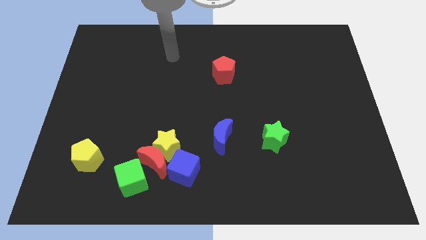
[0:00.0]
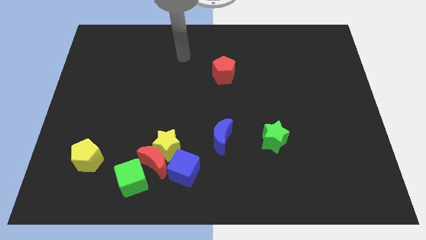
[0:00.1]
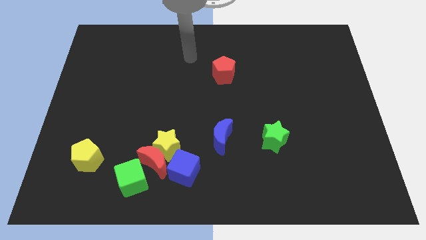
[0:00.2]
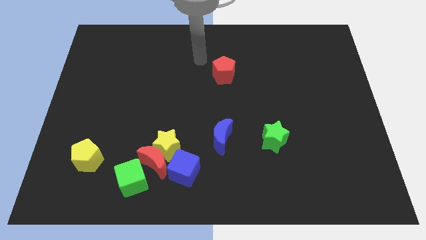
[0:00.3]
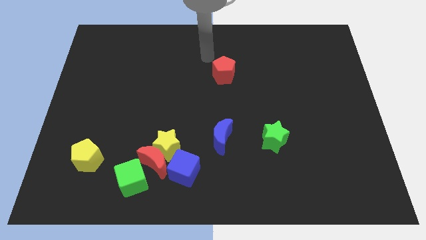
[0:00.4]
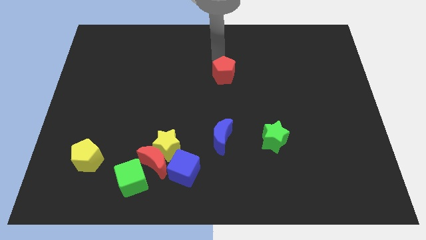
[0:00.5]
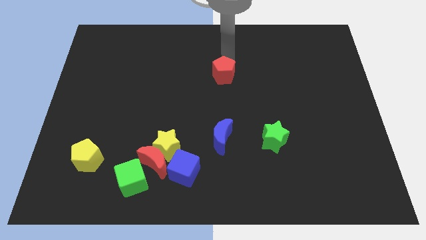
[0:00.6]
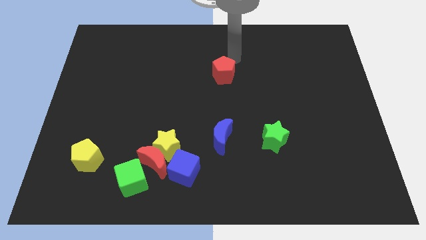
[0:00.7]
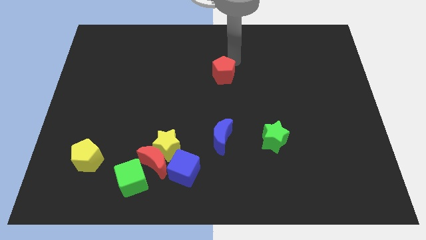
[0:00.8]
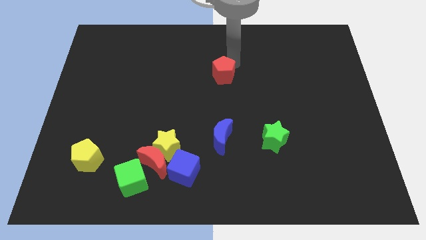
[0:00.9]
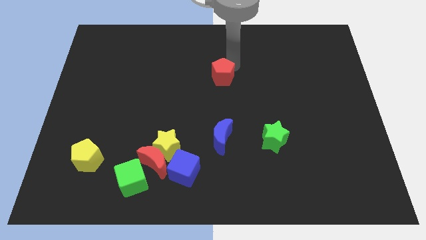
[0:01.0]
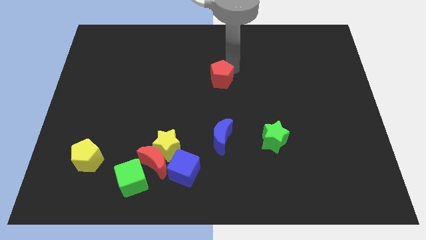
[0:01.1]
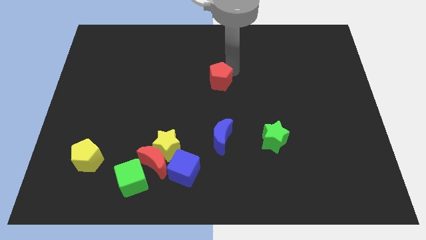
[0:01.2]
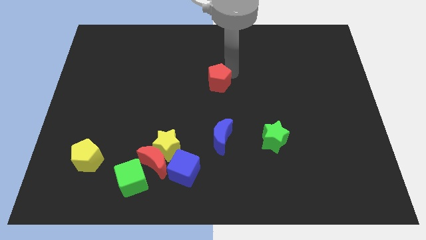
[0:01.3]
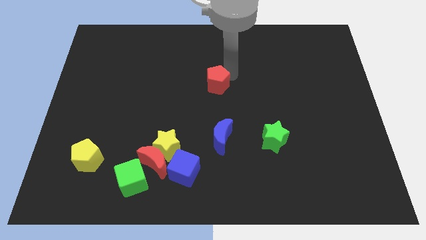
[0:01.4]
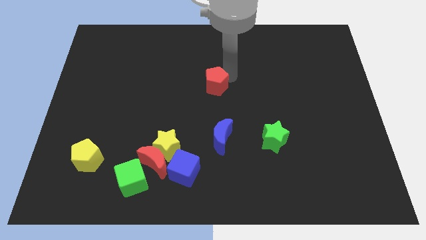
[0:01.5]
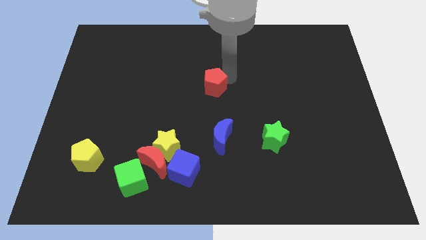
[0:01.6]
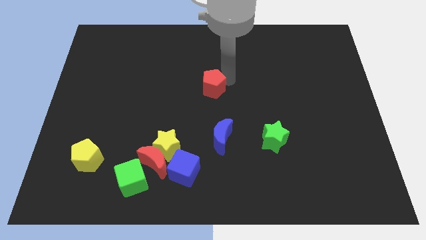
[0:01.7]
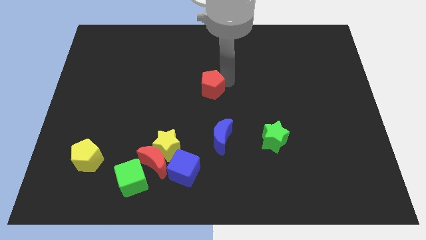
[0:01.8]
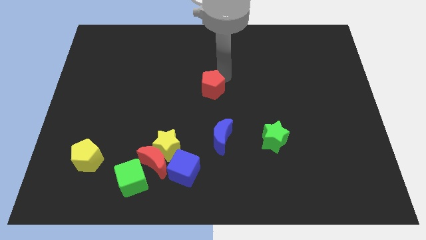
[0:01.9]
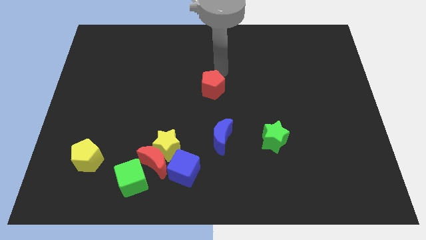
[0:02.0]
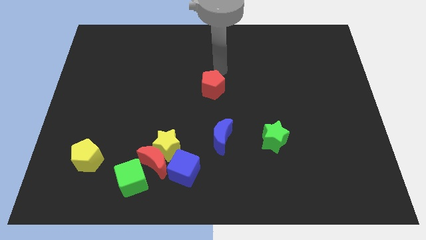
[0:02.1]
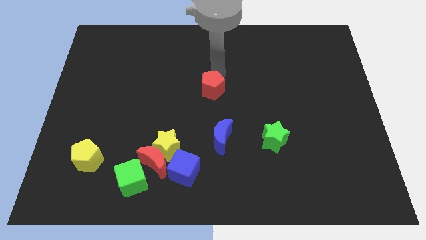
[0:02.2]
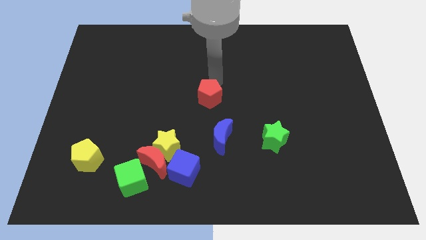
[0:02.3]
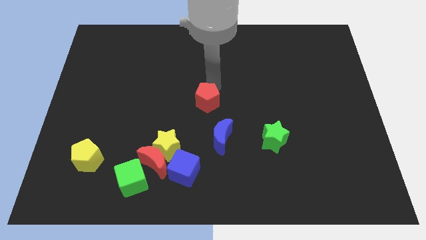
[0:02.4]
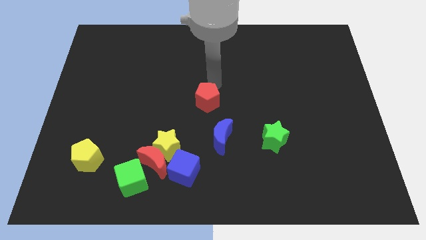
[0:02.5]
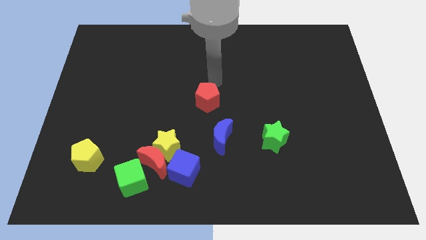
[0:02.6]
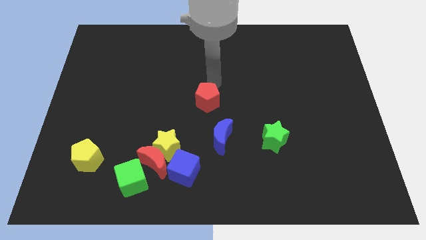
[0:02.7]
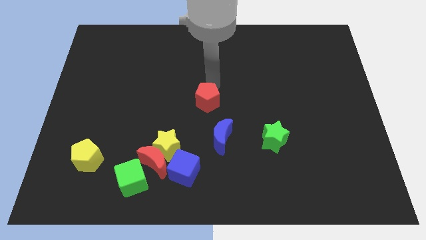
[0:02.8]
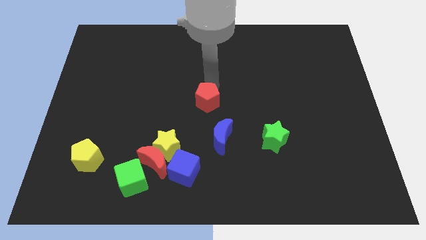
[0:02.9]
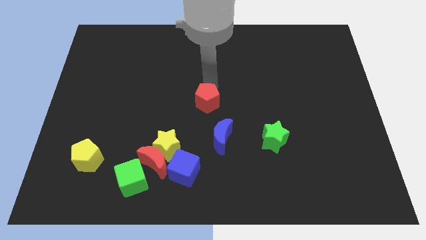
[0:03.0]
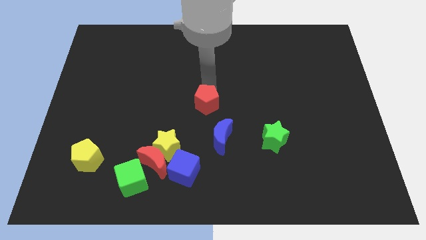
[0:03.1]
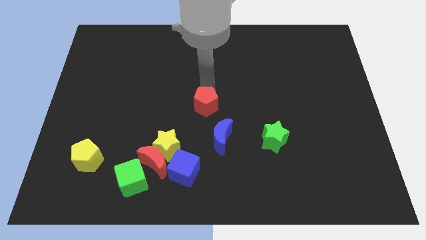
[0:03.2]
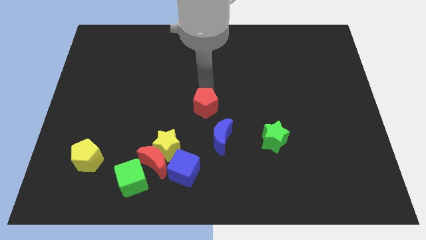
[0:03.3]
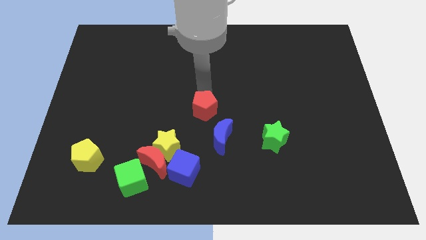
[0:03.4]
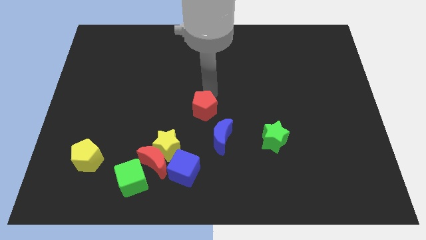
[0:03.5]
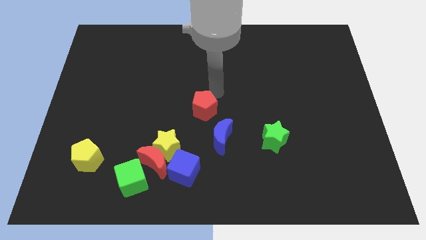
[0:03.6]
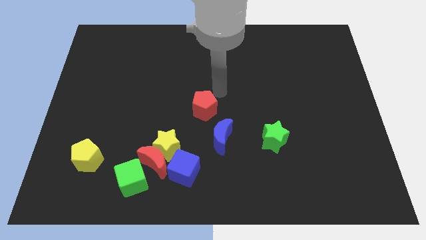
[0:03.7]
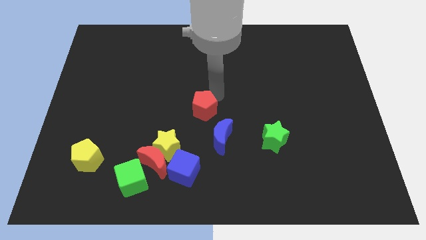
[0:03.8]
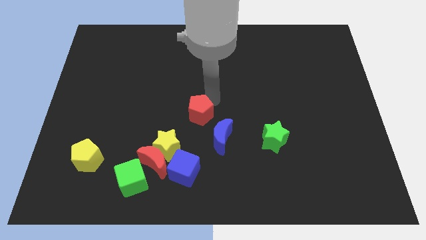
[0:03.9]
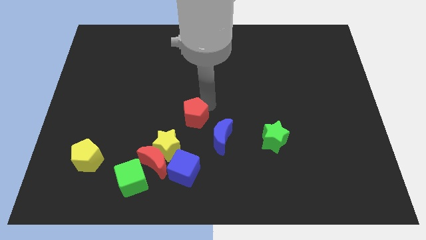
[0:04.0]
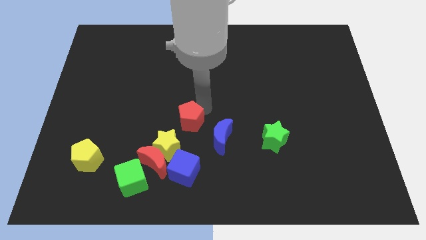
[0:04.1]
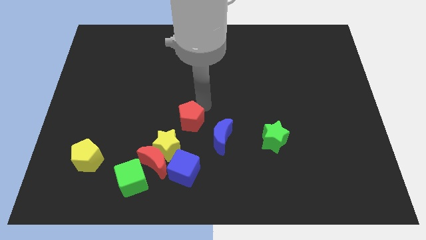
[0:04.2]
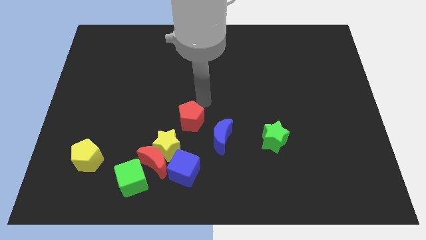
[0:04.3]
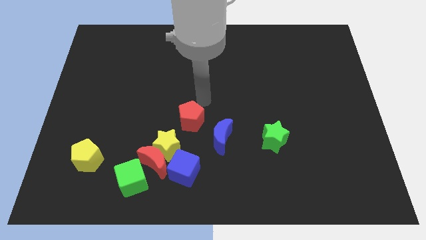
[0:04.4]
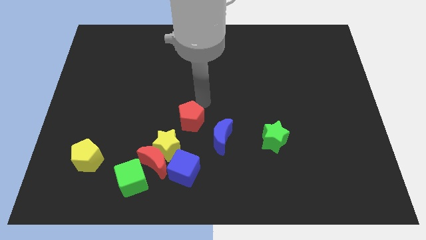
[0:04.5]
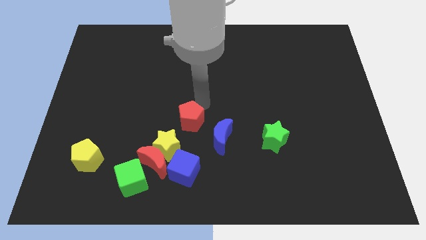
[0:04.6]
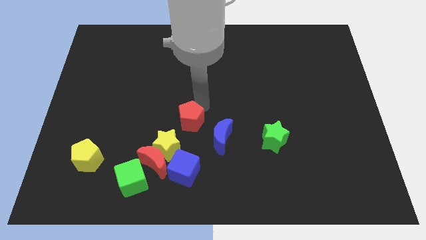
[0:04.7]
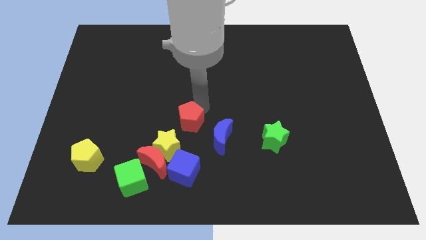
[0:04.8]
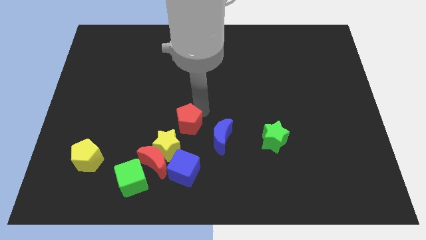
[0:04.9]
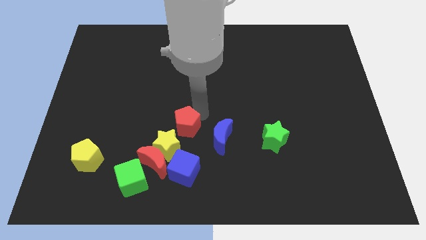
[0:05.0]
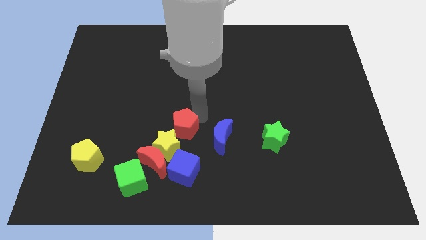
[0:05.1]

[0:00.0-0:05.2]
move the red pentagon next to the yellow star

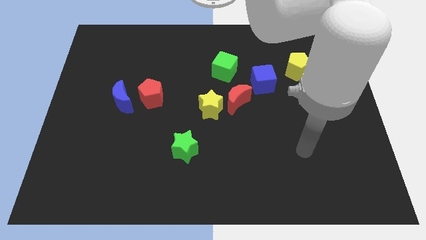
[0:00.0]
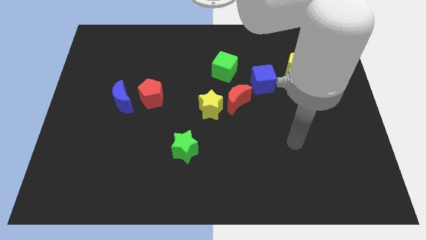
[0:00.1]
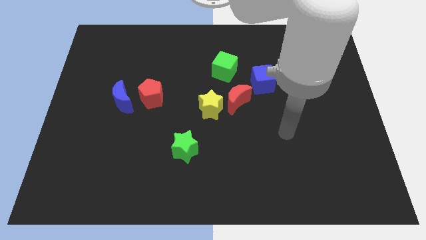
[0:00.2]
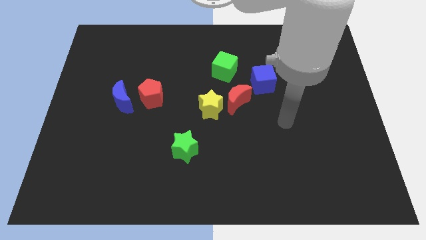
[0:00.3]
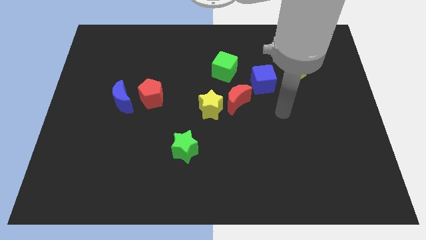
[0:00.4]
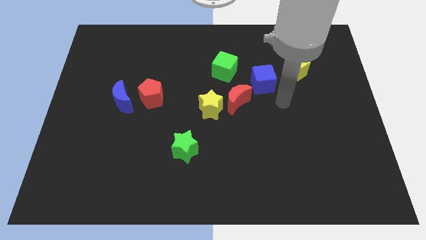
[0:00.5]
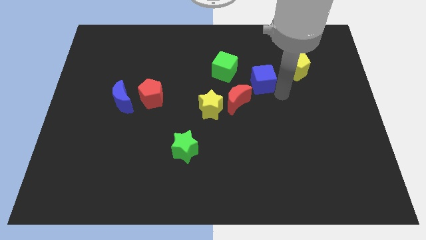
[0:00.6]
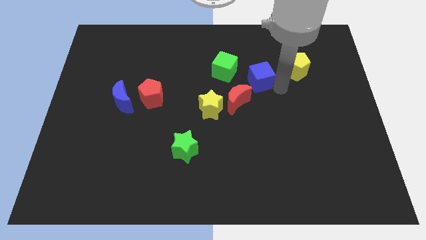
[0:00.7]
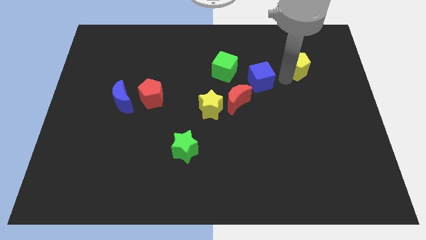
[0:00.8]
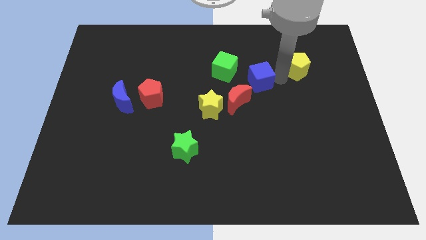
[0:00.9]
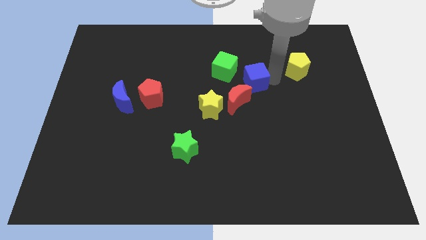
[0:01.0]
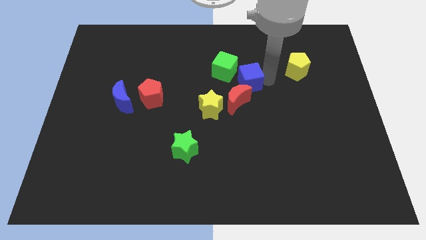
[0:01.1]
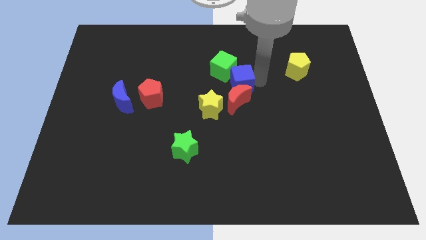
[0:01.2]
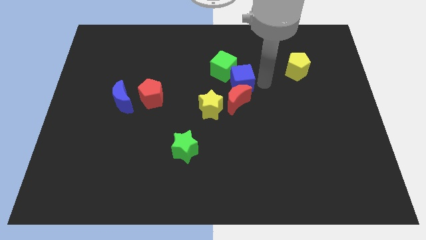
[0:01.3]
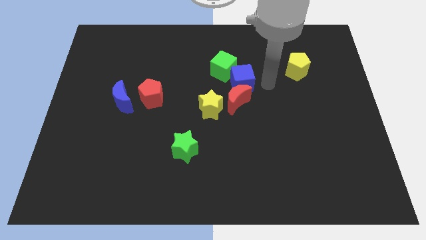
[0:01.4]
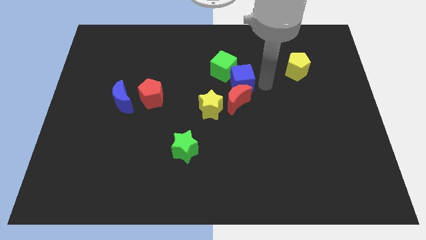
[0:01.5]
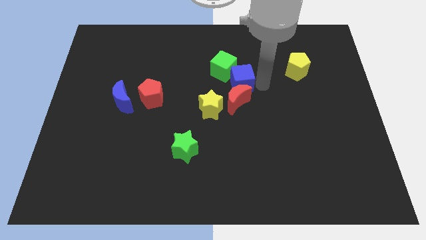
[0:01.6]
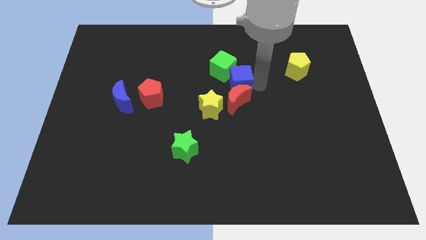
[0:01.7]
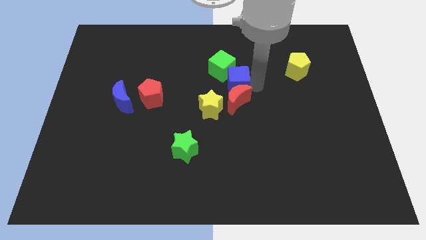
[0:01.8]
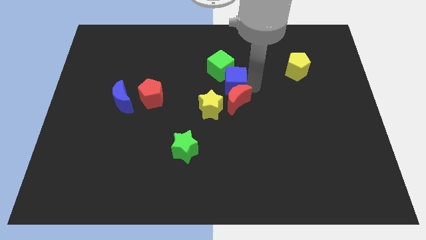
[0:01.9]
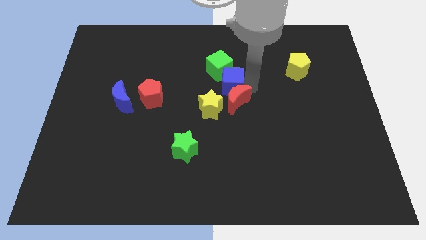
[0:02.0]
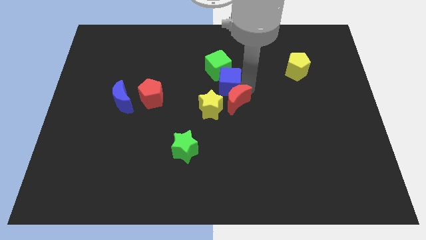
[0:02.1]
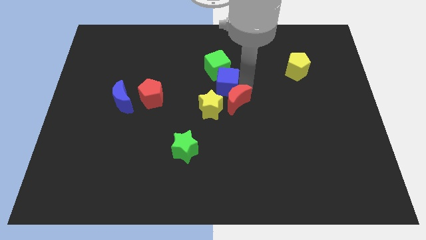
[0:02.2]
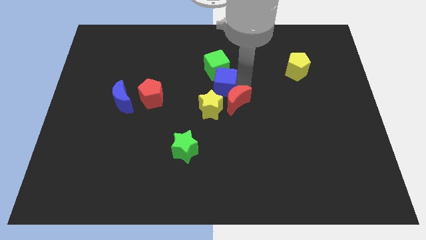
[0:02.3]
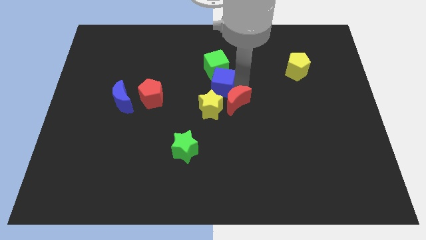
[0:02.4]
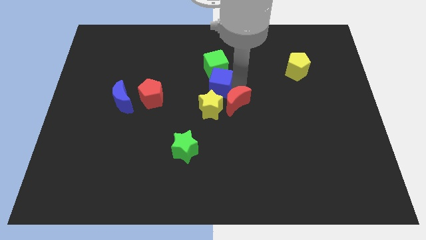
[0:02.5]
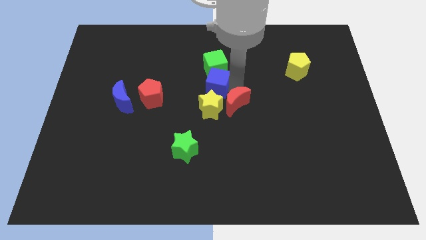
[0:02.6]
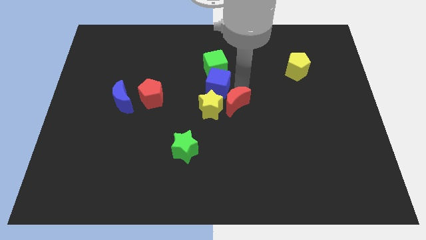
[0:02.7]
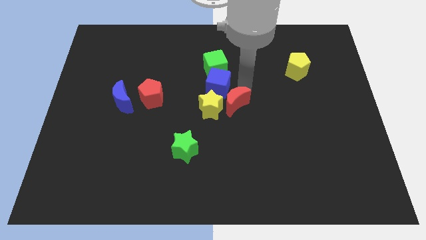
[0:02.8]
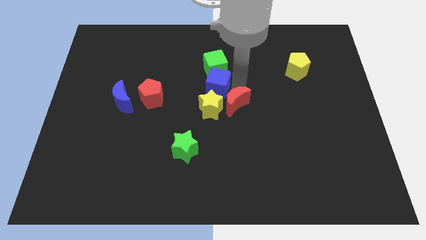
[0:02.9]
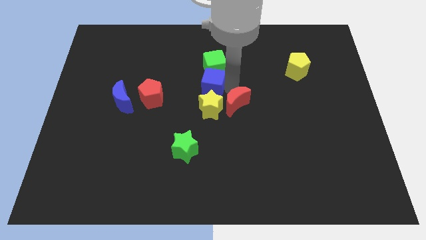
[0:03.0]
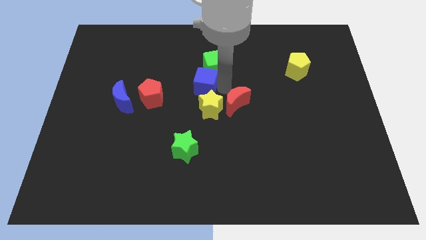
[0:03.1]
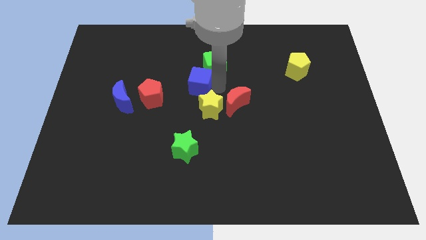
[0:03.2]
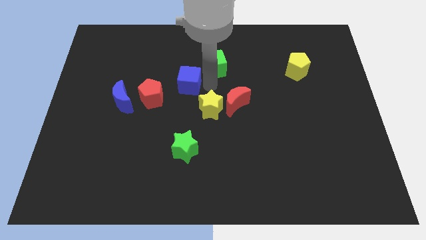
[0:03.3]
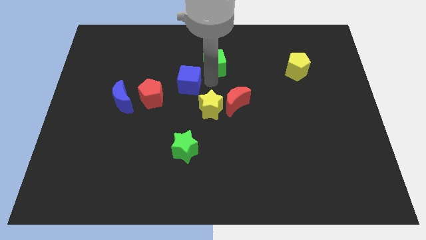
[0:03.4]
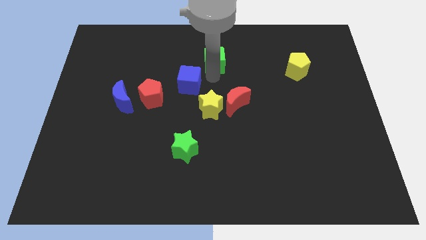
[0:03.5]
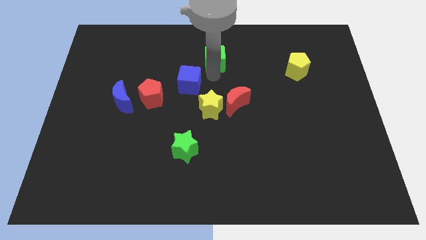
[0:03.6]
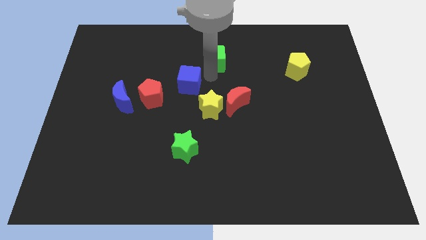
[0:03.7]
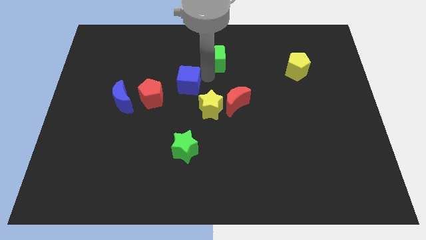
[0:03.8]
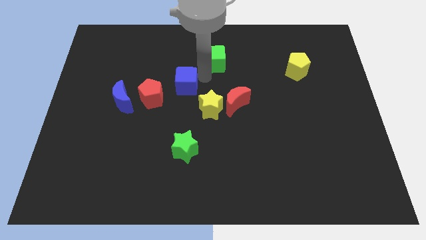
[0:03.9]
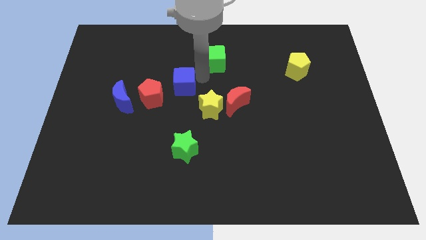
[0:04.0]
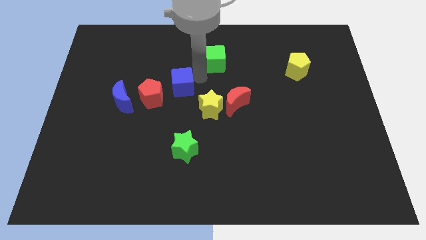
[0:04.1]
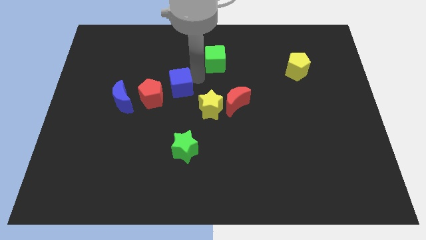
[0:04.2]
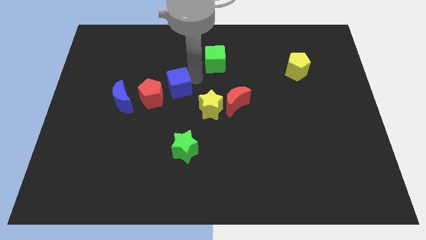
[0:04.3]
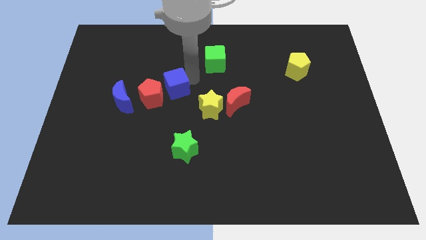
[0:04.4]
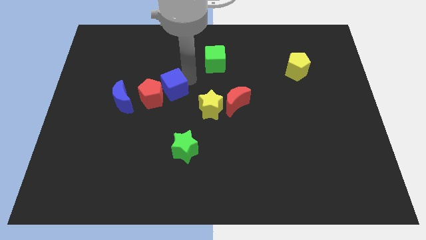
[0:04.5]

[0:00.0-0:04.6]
slide the blue cube next to the red pentagon
